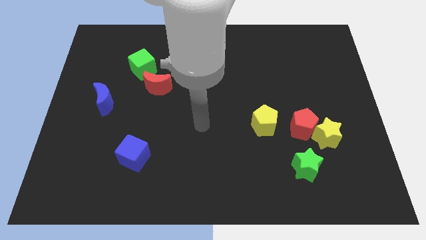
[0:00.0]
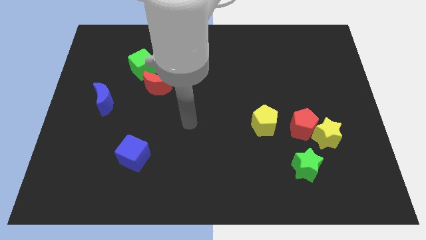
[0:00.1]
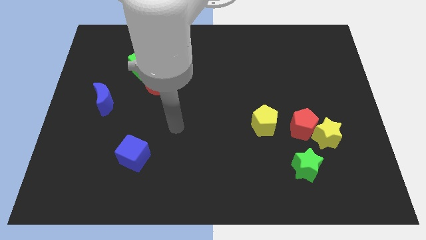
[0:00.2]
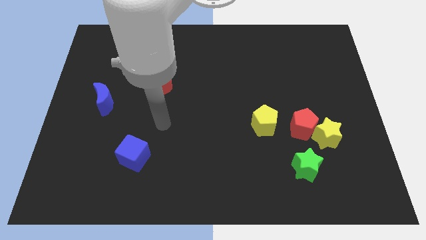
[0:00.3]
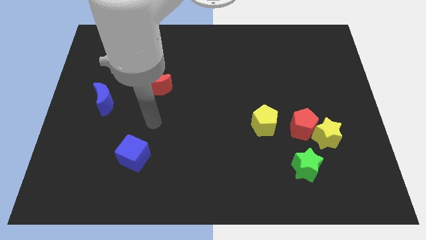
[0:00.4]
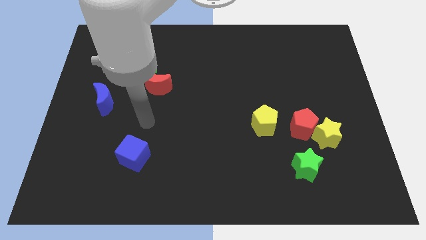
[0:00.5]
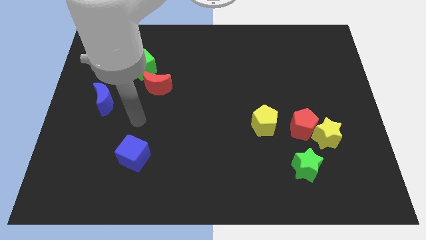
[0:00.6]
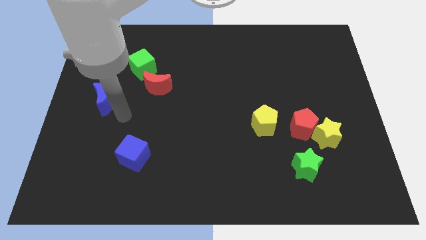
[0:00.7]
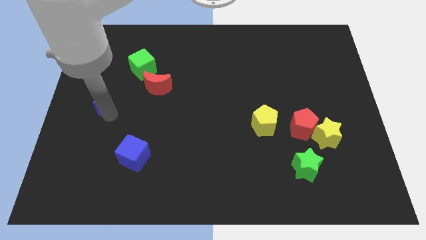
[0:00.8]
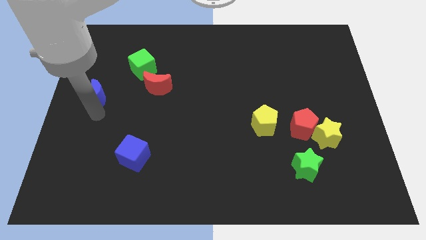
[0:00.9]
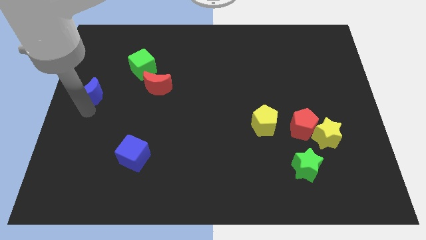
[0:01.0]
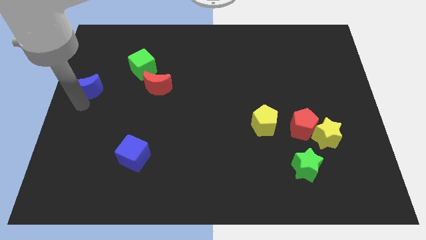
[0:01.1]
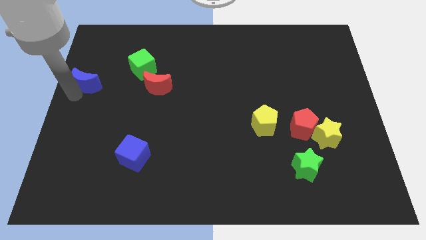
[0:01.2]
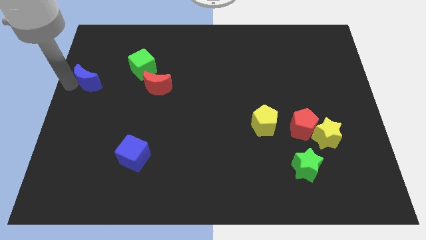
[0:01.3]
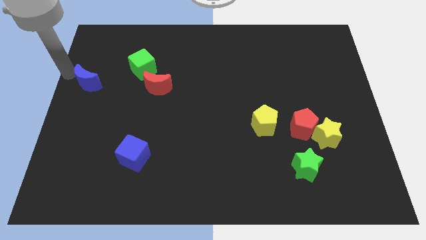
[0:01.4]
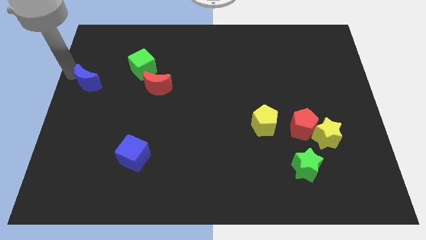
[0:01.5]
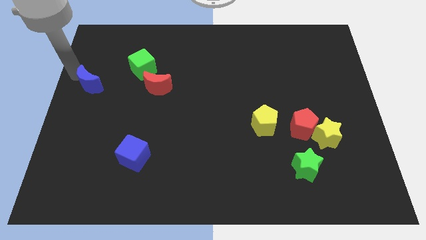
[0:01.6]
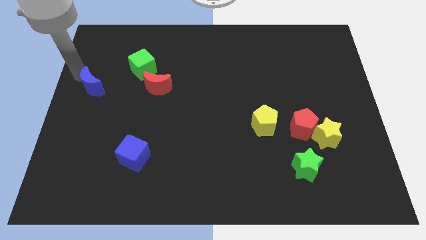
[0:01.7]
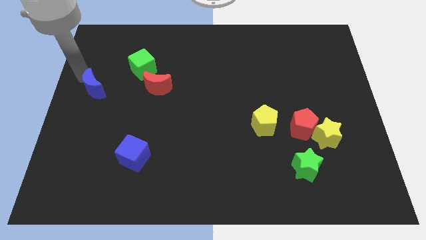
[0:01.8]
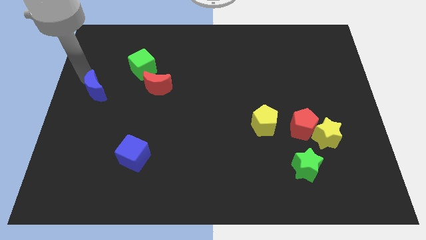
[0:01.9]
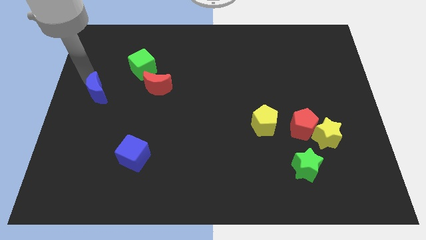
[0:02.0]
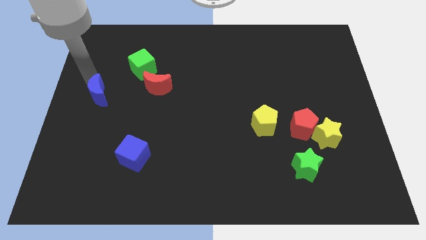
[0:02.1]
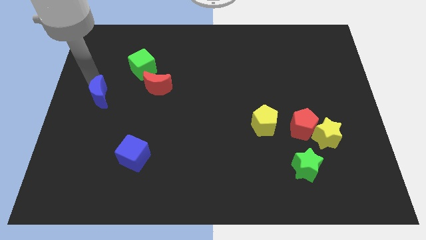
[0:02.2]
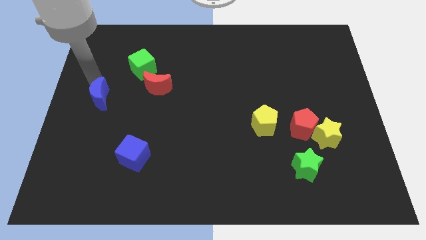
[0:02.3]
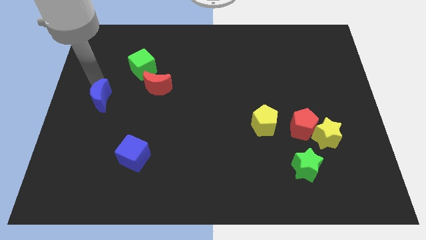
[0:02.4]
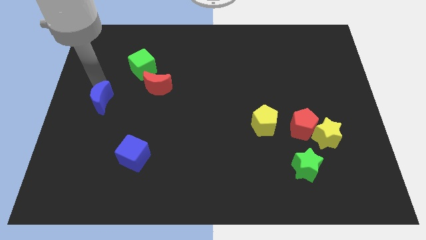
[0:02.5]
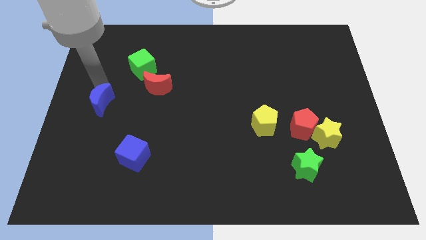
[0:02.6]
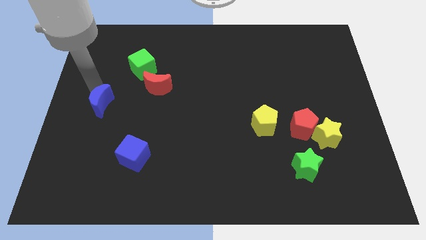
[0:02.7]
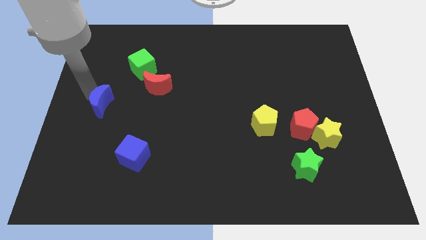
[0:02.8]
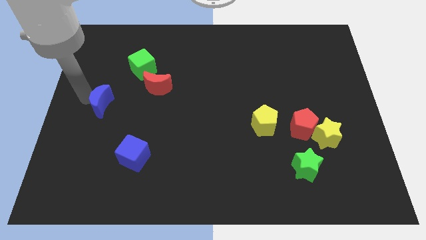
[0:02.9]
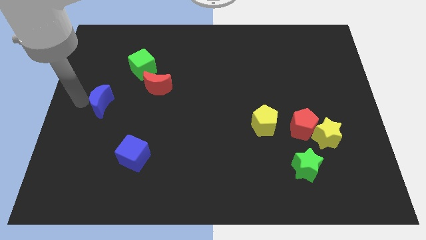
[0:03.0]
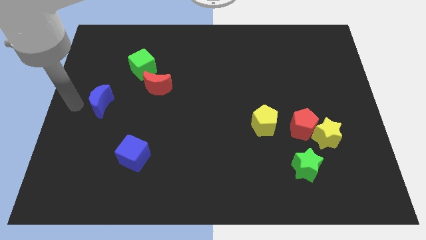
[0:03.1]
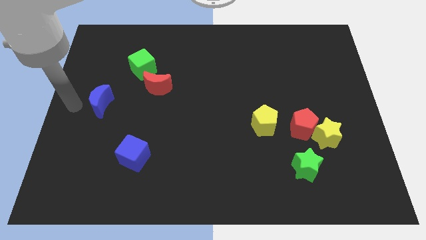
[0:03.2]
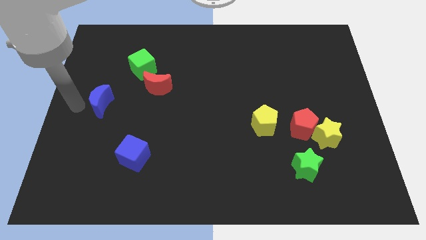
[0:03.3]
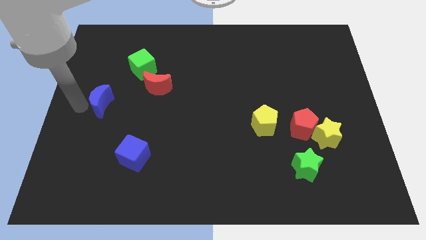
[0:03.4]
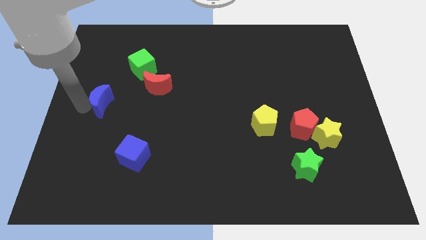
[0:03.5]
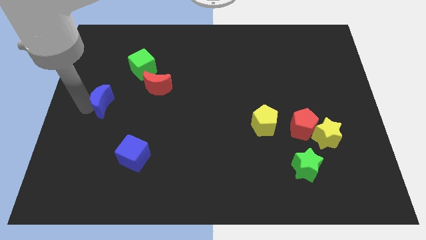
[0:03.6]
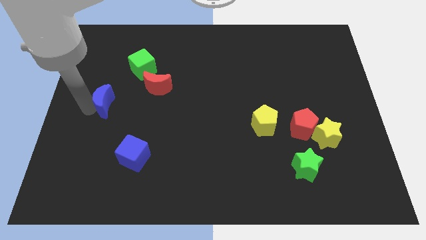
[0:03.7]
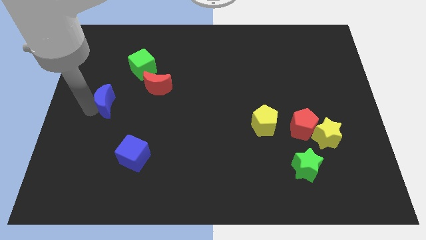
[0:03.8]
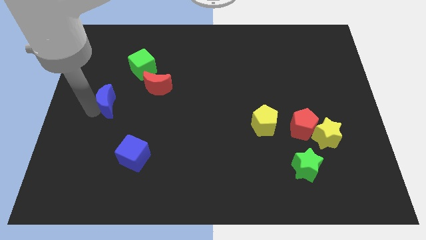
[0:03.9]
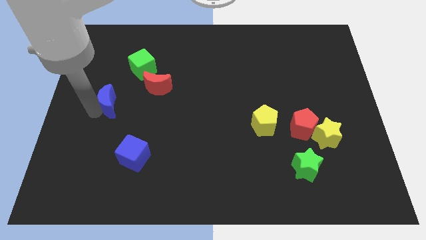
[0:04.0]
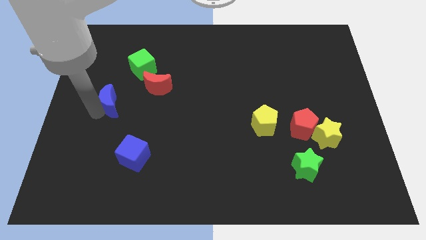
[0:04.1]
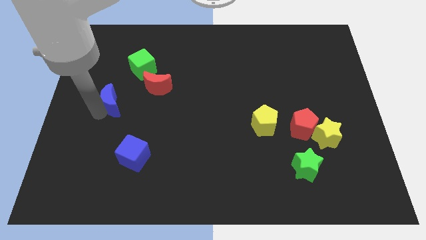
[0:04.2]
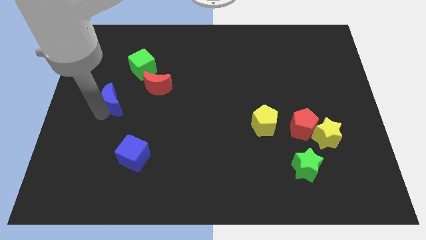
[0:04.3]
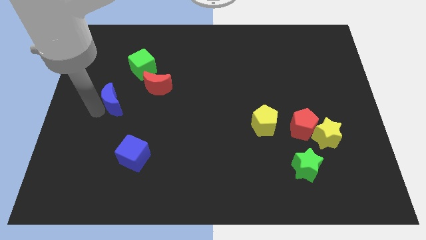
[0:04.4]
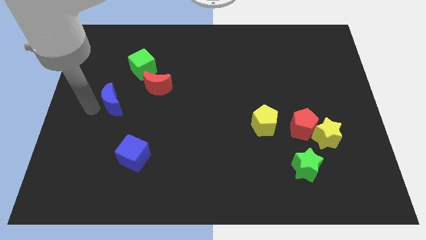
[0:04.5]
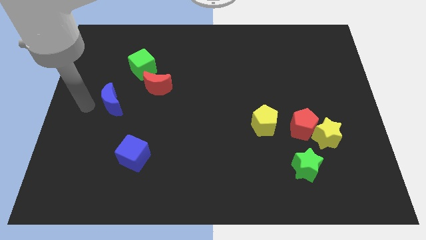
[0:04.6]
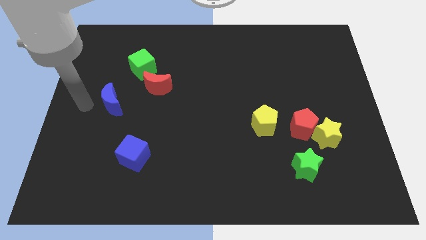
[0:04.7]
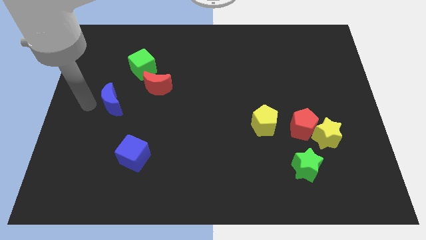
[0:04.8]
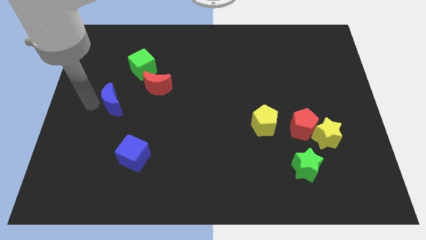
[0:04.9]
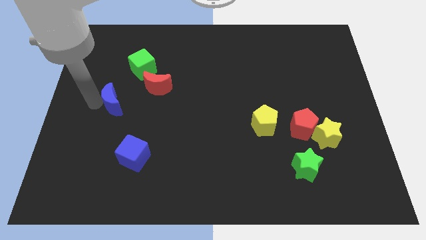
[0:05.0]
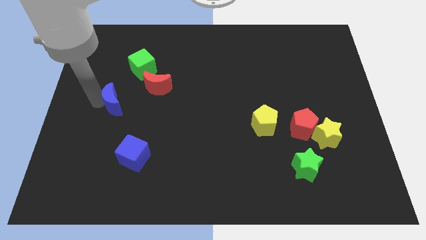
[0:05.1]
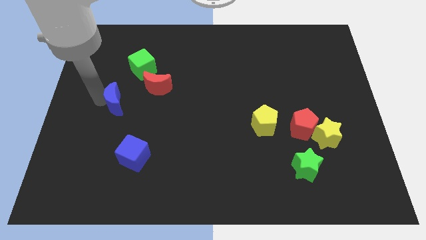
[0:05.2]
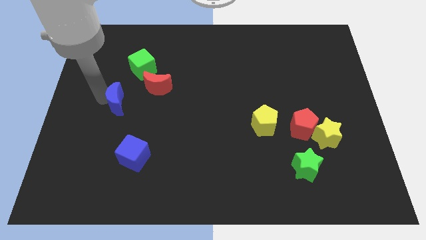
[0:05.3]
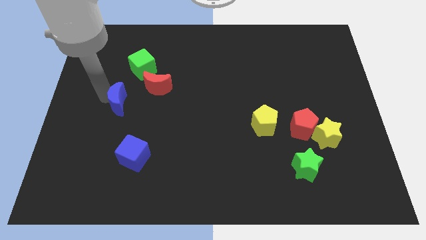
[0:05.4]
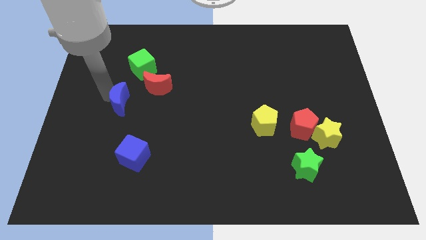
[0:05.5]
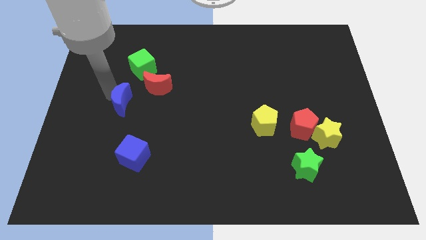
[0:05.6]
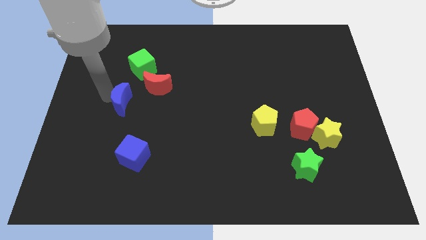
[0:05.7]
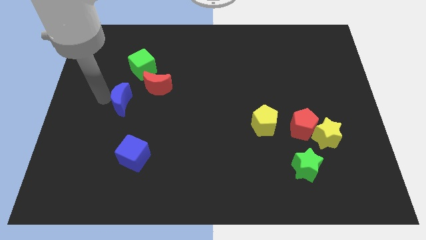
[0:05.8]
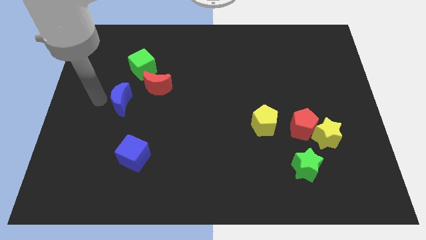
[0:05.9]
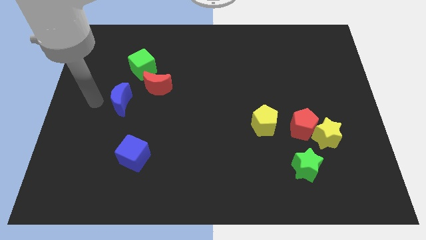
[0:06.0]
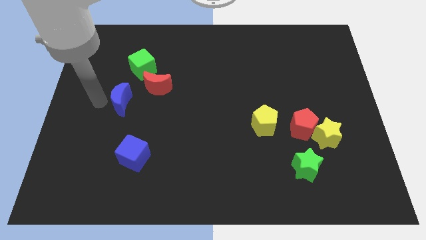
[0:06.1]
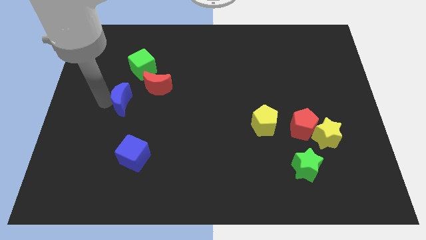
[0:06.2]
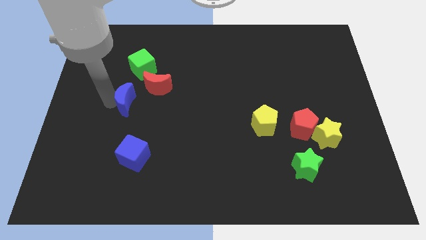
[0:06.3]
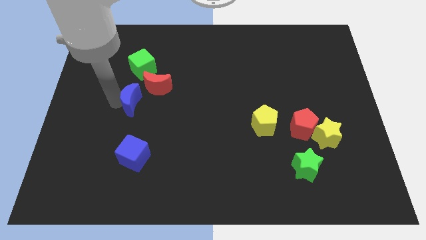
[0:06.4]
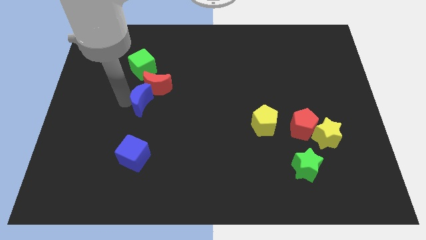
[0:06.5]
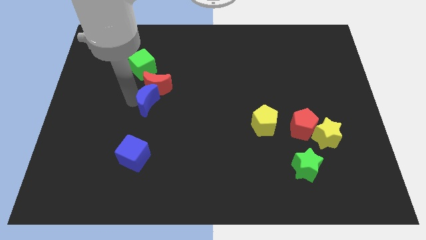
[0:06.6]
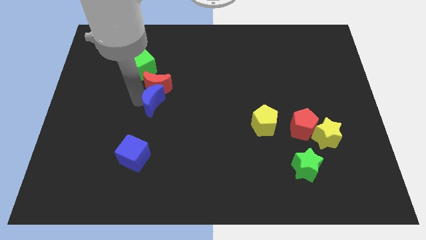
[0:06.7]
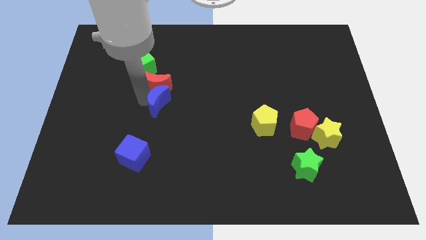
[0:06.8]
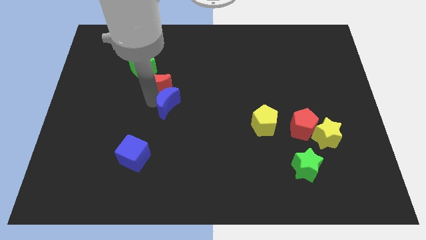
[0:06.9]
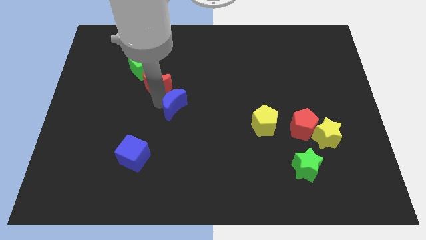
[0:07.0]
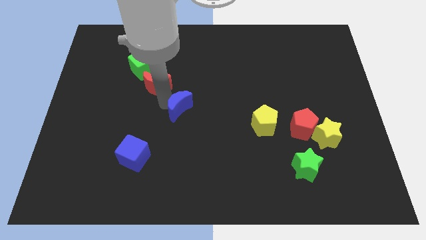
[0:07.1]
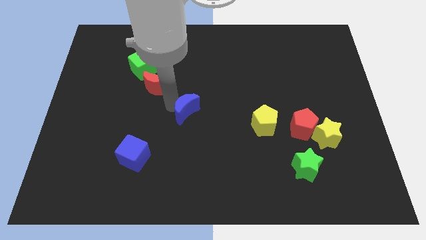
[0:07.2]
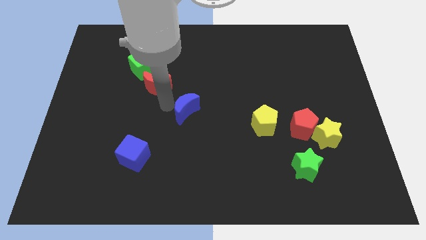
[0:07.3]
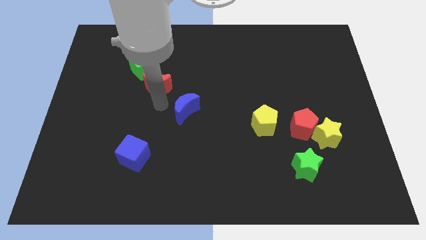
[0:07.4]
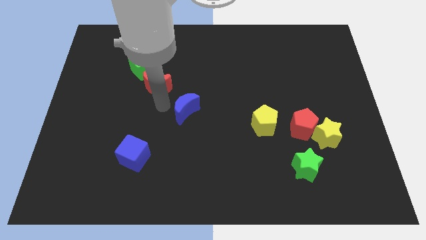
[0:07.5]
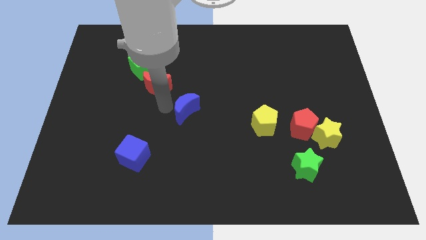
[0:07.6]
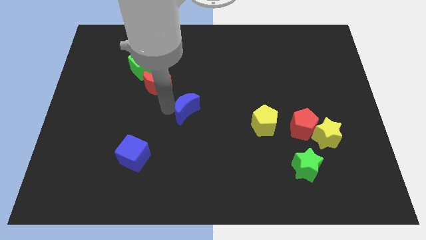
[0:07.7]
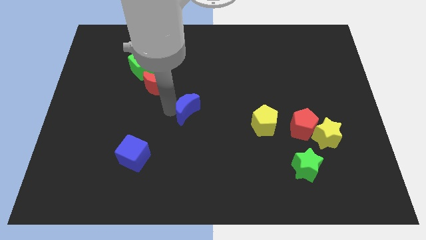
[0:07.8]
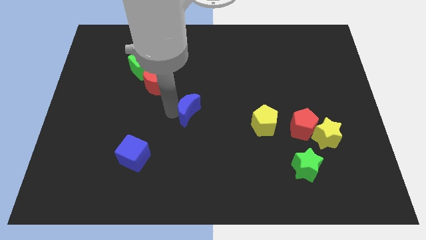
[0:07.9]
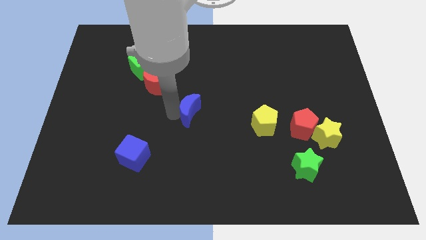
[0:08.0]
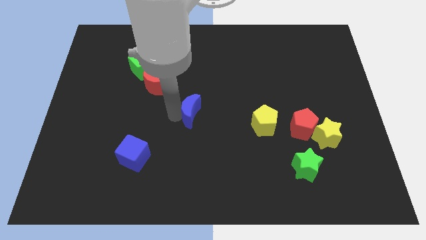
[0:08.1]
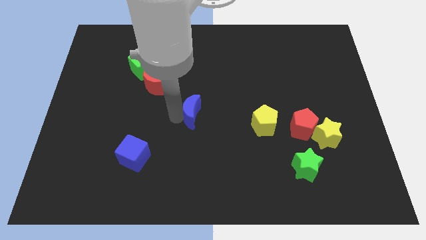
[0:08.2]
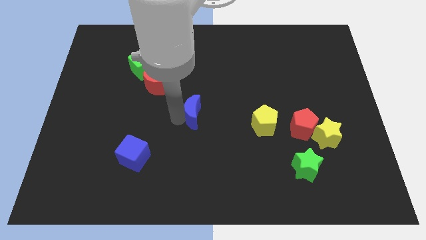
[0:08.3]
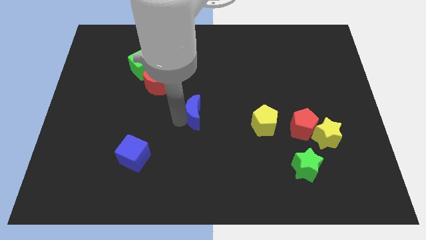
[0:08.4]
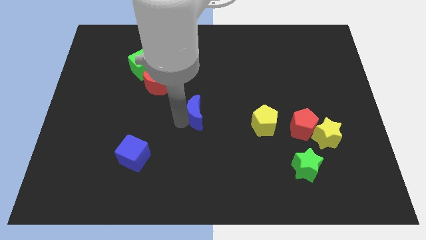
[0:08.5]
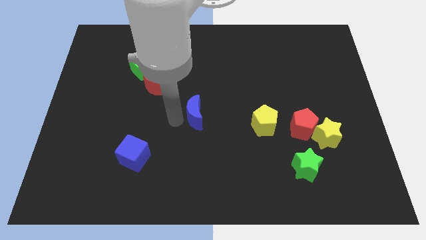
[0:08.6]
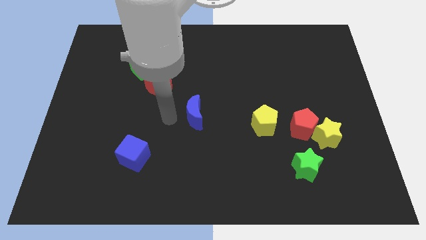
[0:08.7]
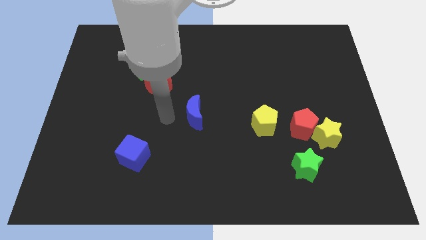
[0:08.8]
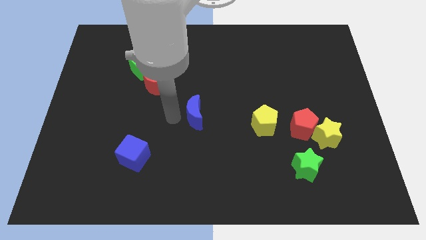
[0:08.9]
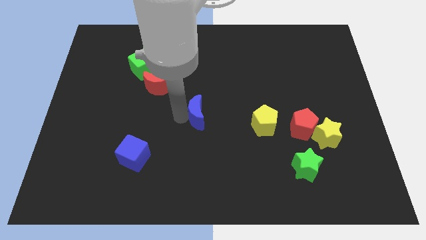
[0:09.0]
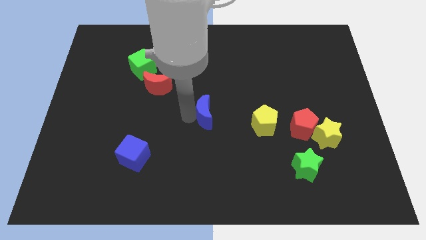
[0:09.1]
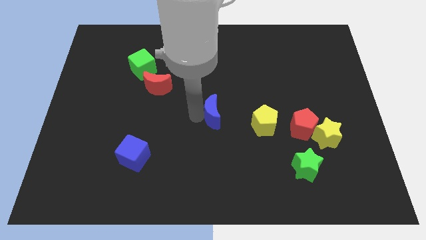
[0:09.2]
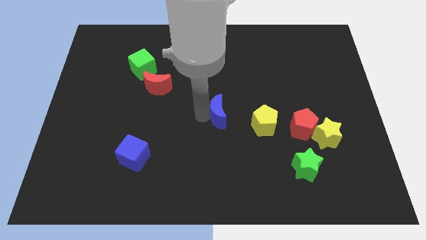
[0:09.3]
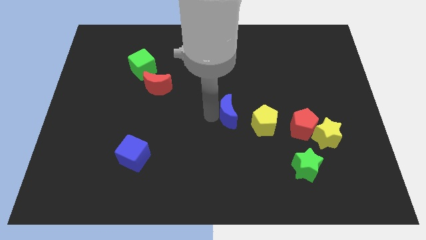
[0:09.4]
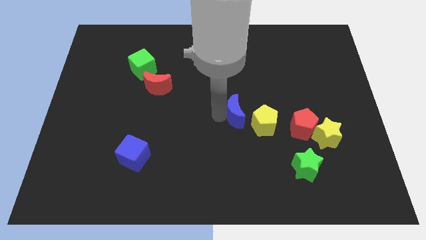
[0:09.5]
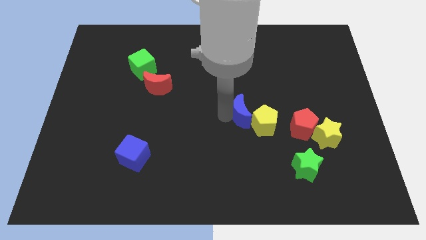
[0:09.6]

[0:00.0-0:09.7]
put the blue moon towards the yellow pentagon
